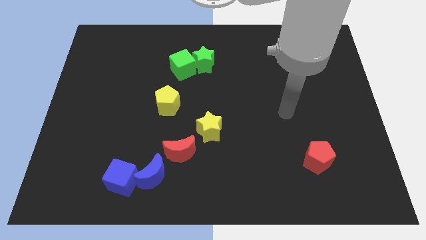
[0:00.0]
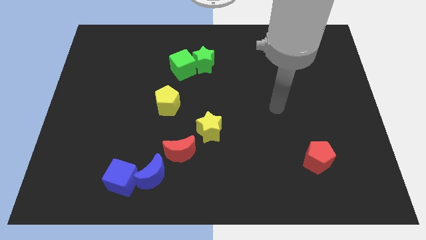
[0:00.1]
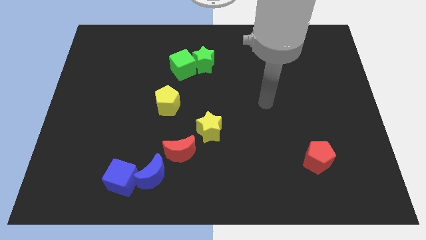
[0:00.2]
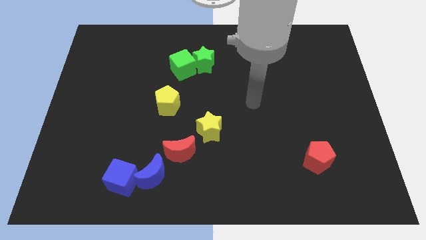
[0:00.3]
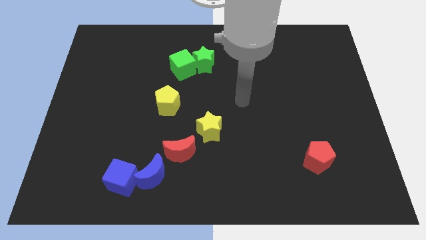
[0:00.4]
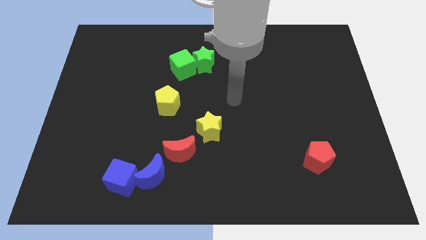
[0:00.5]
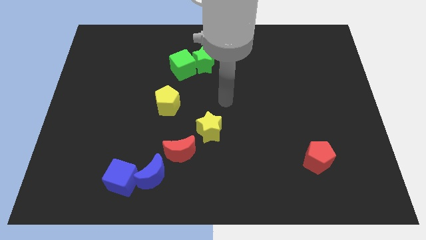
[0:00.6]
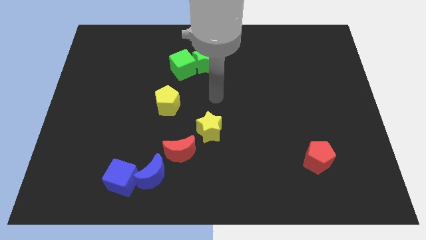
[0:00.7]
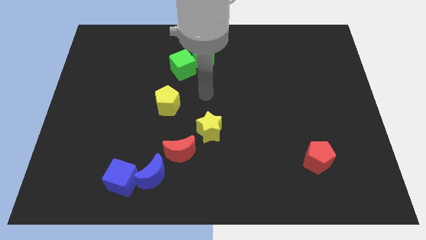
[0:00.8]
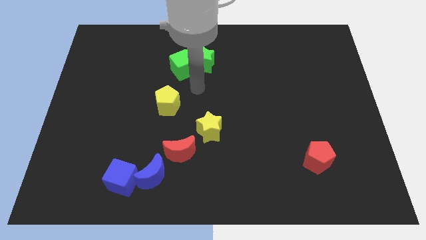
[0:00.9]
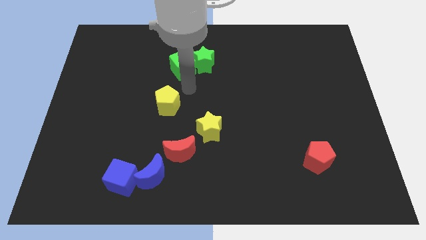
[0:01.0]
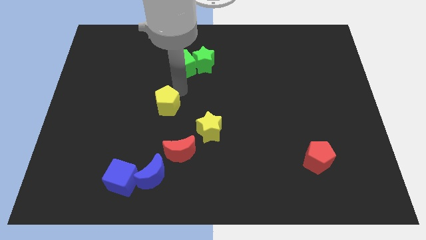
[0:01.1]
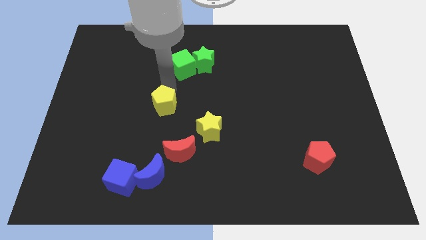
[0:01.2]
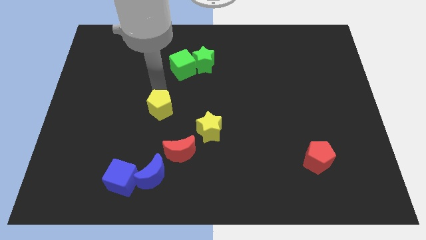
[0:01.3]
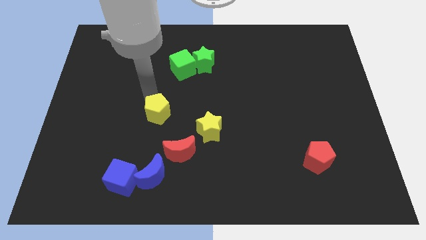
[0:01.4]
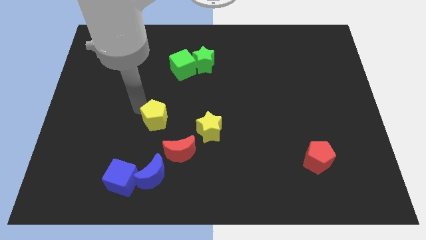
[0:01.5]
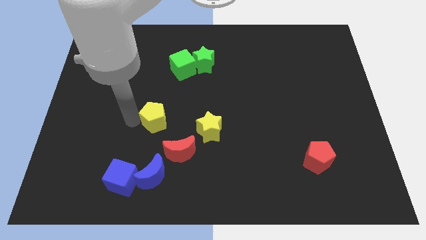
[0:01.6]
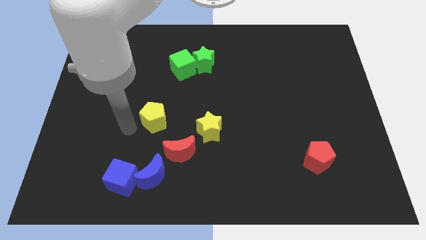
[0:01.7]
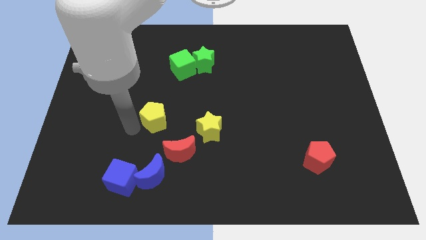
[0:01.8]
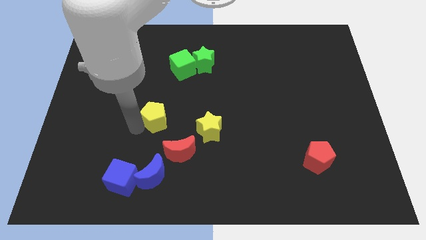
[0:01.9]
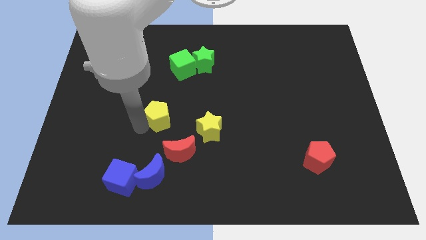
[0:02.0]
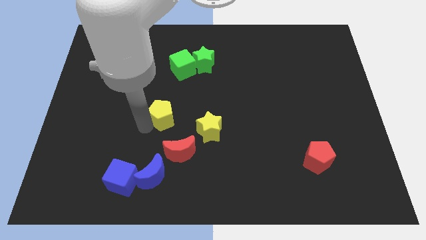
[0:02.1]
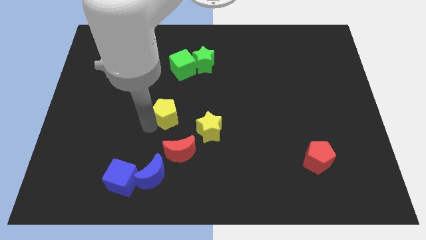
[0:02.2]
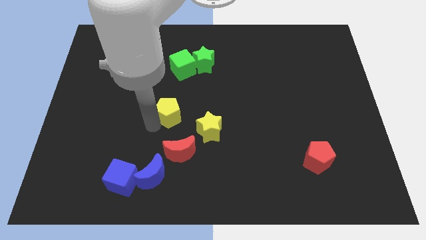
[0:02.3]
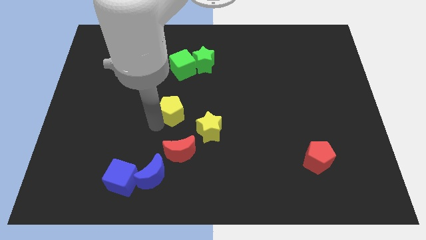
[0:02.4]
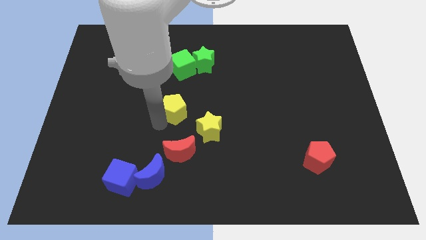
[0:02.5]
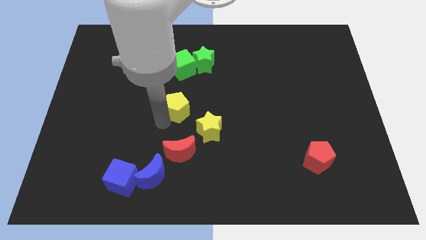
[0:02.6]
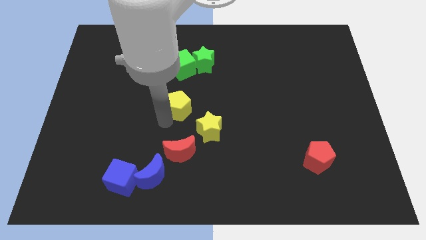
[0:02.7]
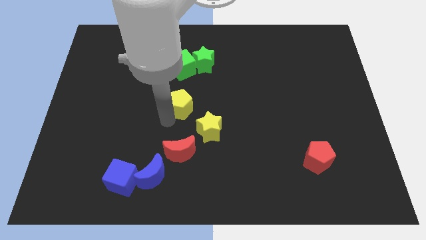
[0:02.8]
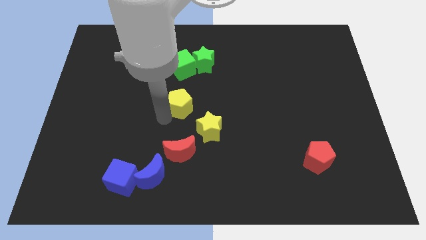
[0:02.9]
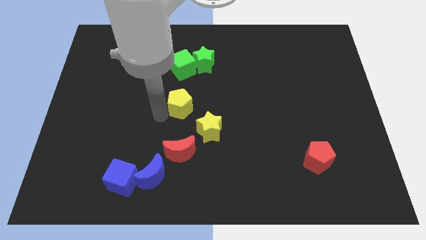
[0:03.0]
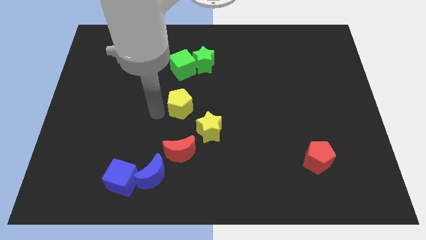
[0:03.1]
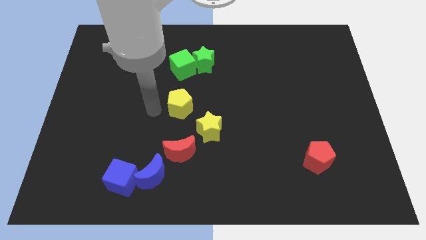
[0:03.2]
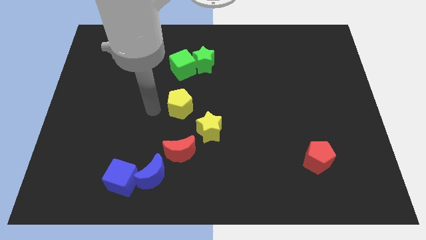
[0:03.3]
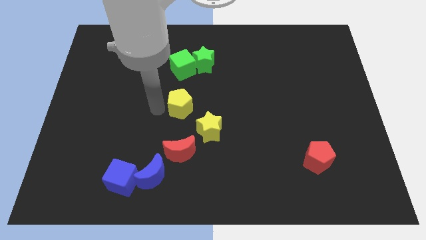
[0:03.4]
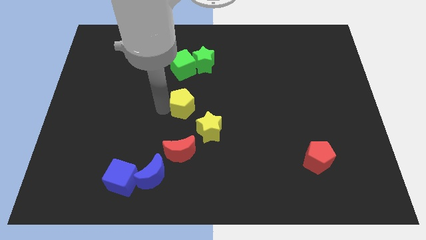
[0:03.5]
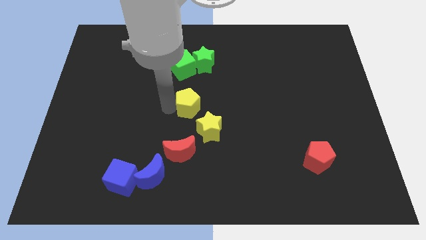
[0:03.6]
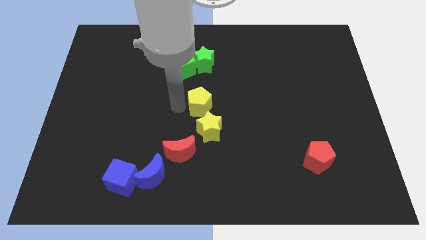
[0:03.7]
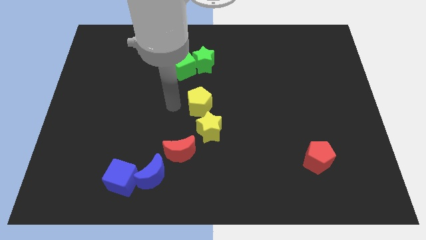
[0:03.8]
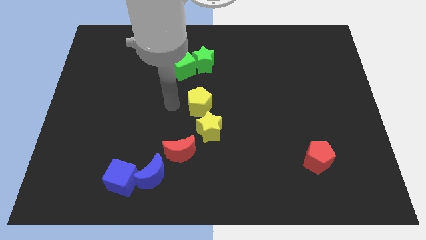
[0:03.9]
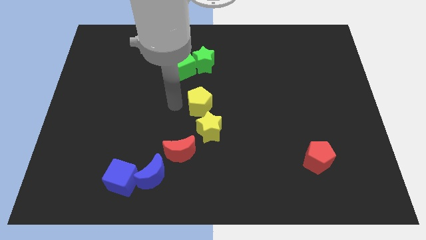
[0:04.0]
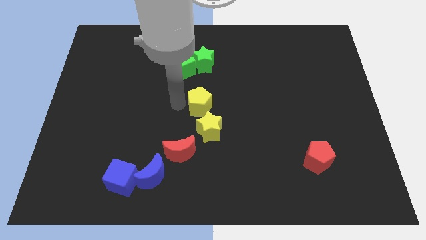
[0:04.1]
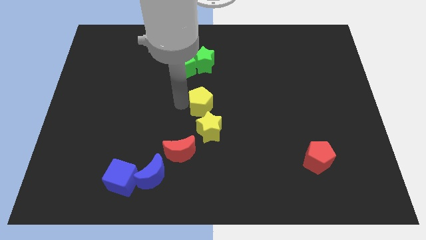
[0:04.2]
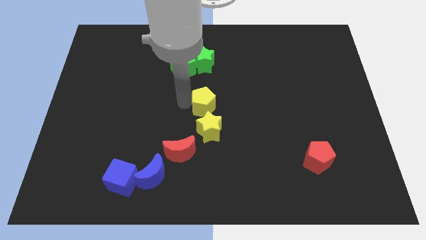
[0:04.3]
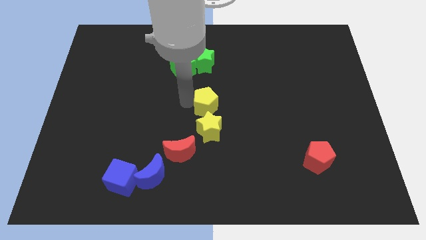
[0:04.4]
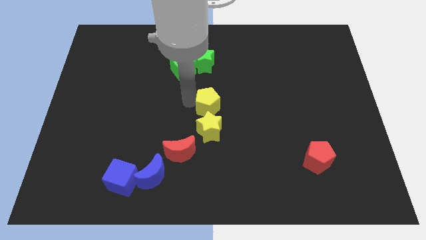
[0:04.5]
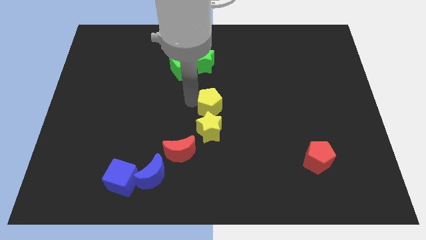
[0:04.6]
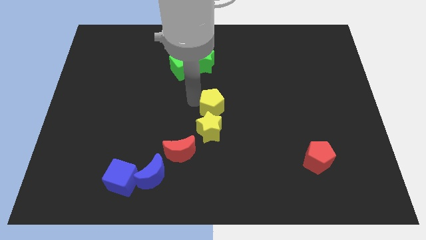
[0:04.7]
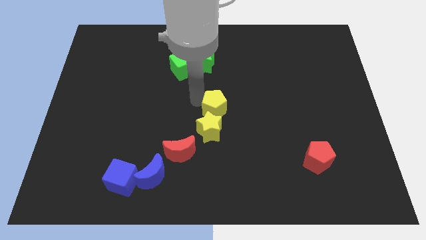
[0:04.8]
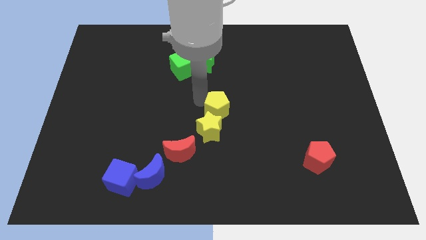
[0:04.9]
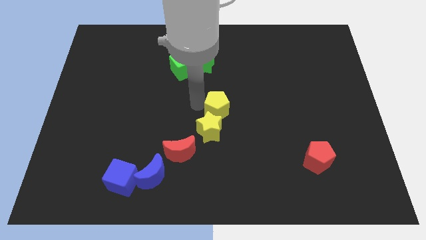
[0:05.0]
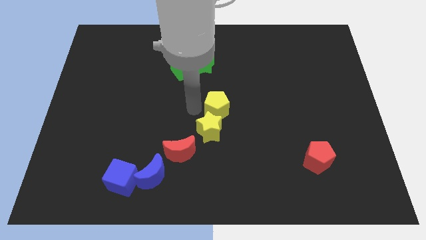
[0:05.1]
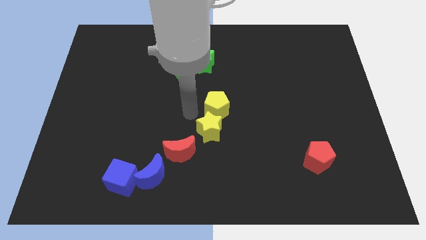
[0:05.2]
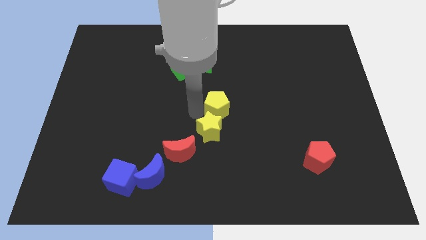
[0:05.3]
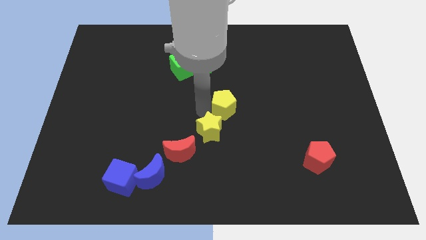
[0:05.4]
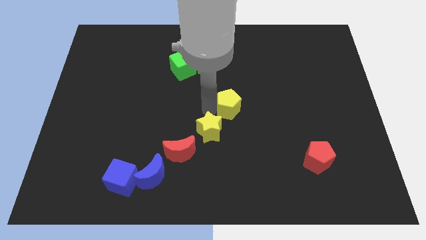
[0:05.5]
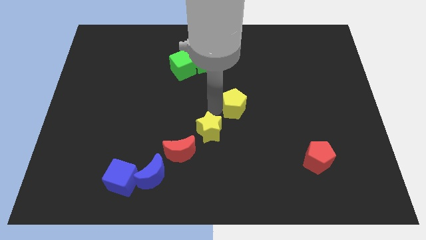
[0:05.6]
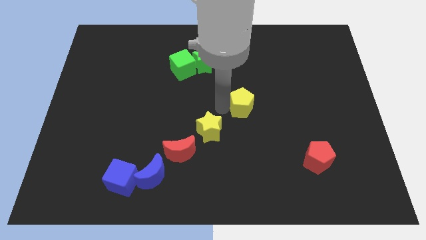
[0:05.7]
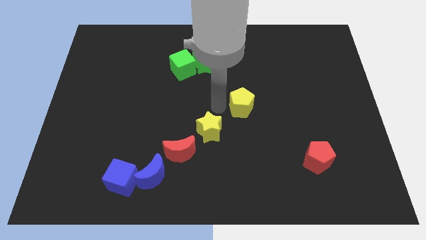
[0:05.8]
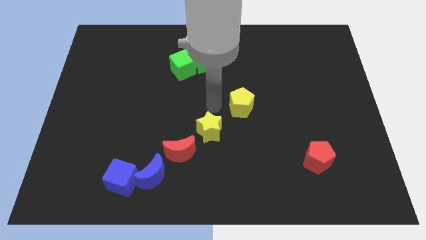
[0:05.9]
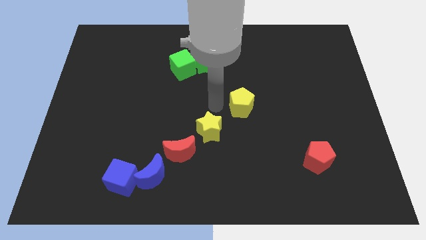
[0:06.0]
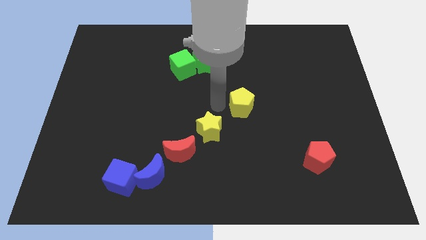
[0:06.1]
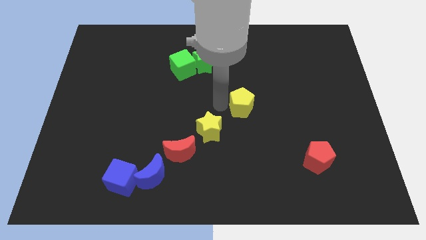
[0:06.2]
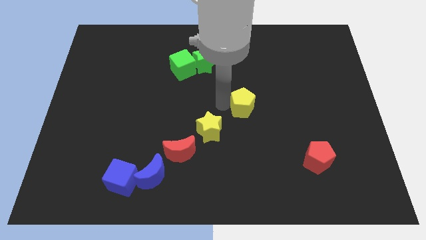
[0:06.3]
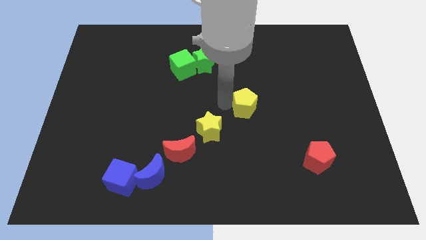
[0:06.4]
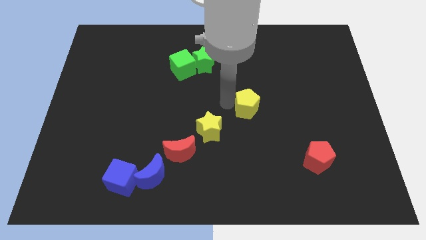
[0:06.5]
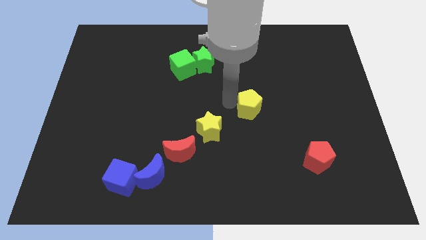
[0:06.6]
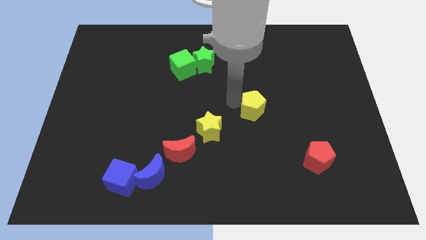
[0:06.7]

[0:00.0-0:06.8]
move the yellow pentagon right

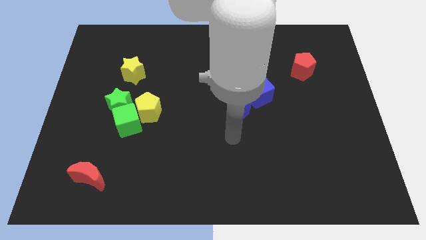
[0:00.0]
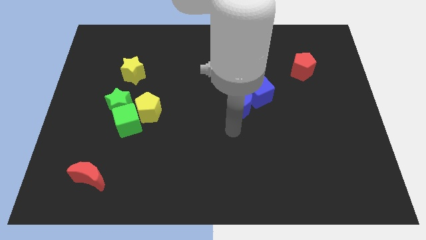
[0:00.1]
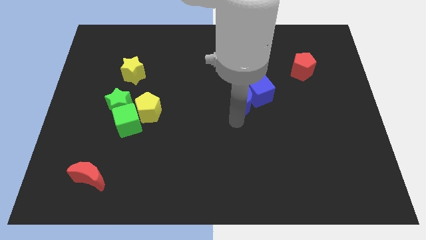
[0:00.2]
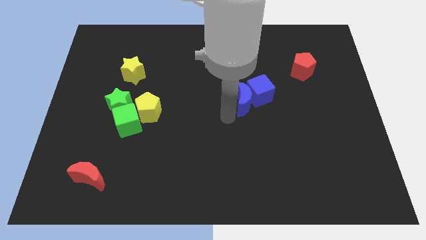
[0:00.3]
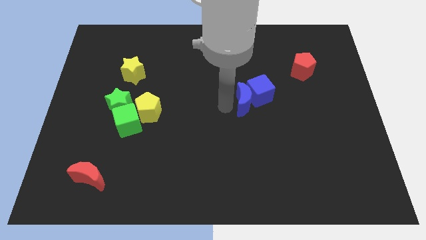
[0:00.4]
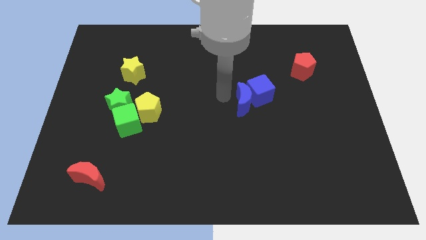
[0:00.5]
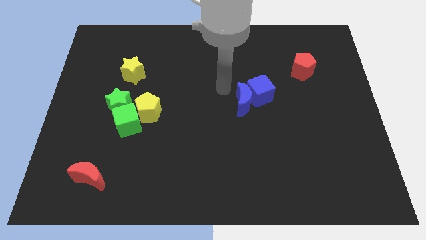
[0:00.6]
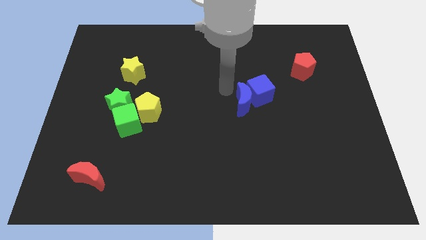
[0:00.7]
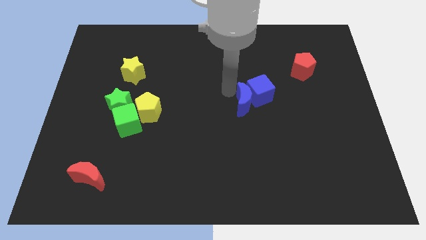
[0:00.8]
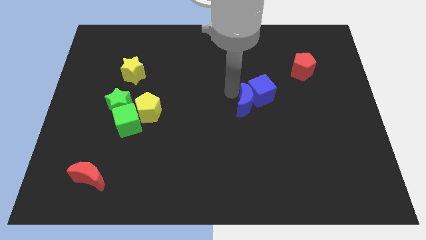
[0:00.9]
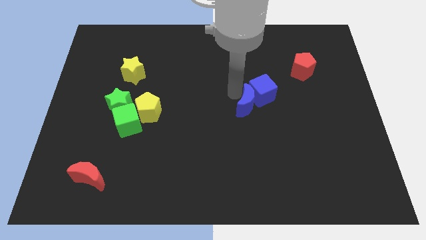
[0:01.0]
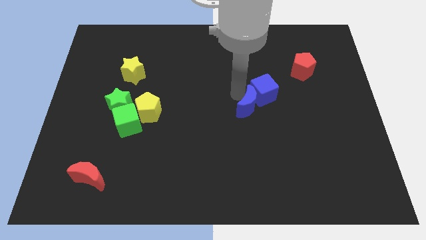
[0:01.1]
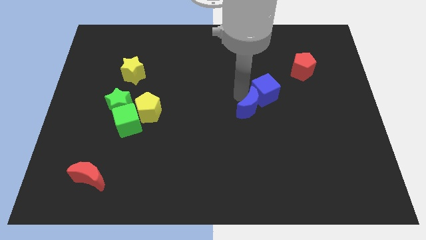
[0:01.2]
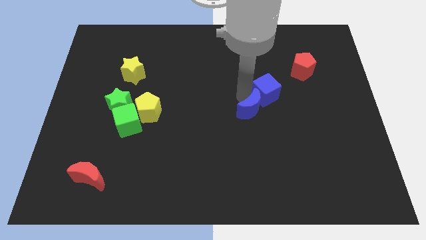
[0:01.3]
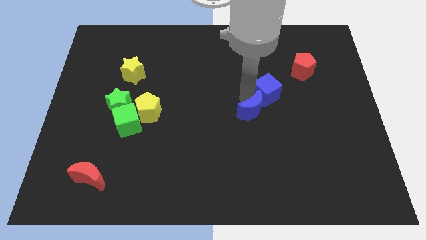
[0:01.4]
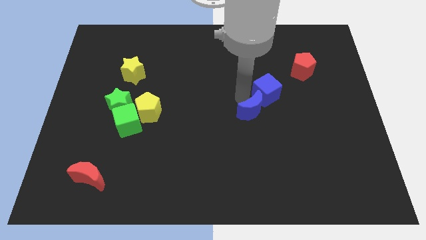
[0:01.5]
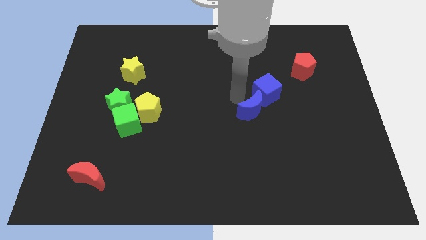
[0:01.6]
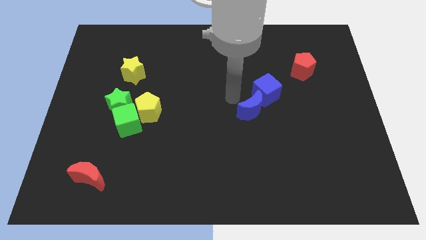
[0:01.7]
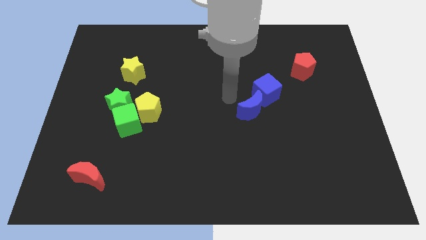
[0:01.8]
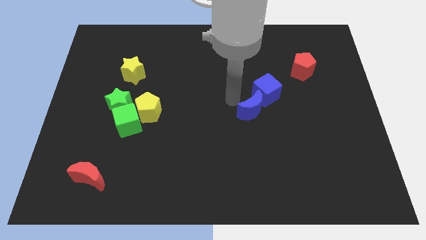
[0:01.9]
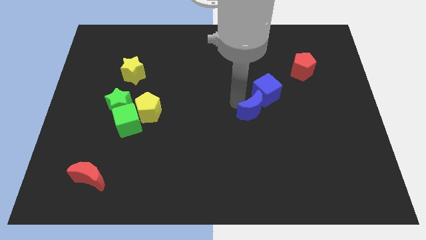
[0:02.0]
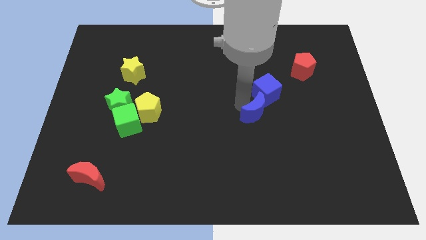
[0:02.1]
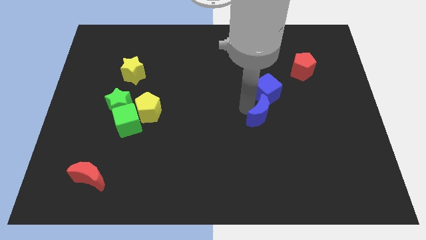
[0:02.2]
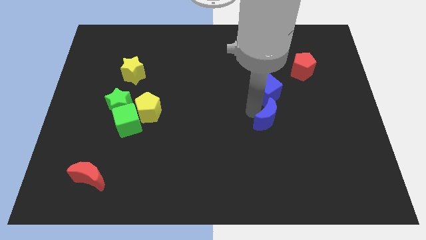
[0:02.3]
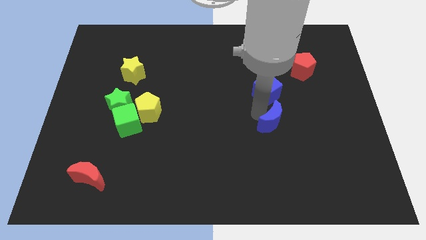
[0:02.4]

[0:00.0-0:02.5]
slightly move the blue moon diagonally down and right
